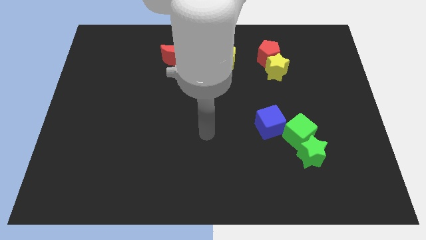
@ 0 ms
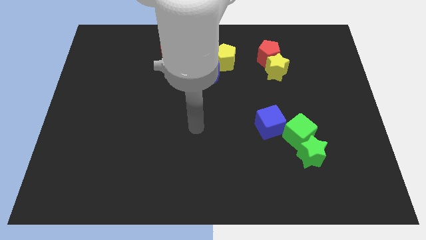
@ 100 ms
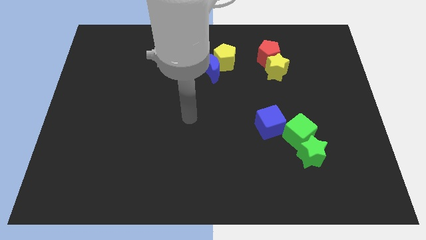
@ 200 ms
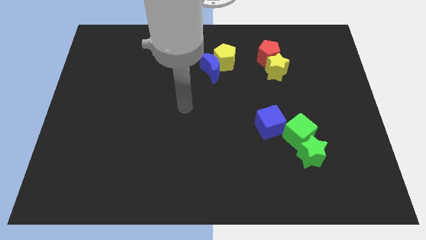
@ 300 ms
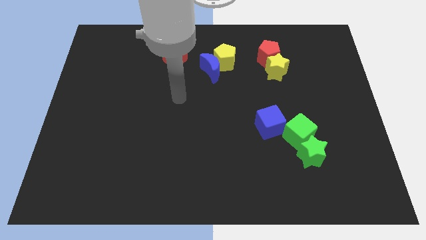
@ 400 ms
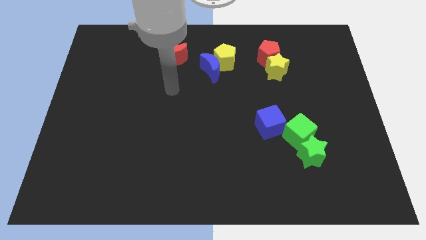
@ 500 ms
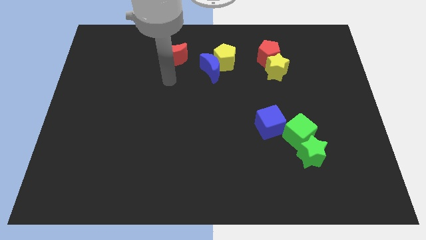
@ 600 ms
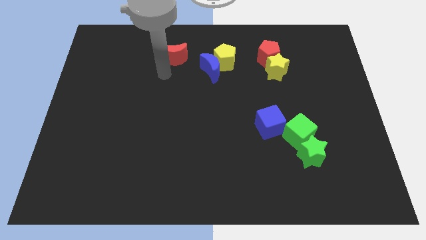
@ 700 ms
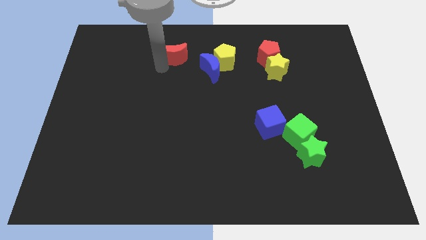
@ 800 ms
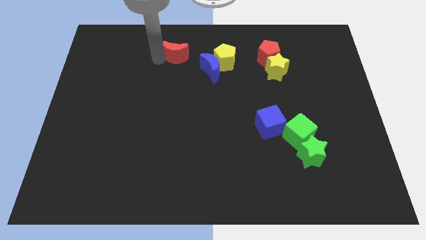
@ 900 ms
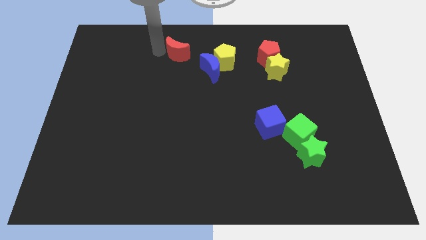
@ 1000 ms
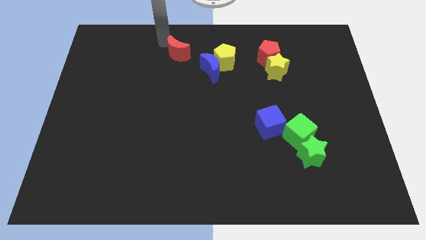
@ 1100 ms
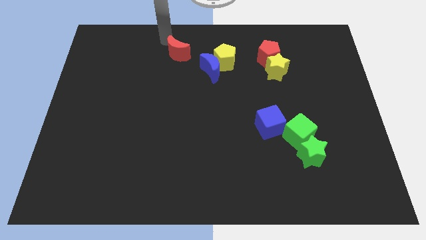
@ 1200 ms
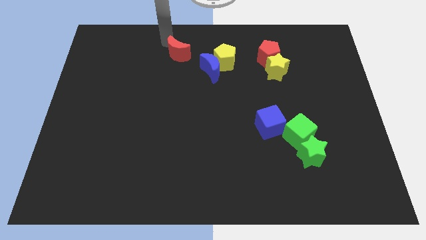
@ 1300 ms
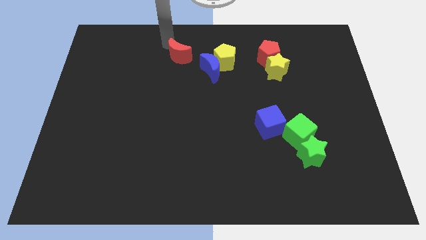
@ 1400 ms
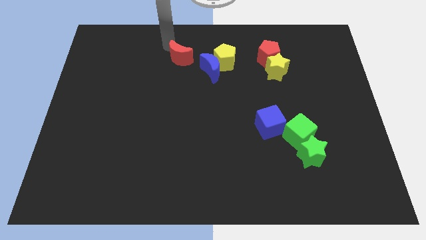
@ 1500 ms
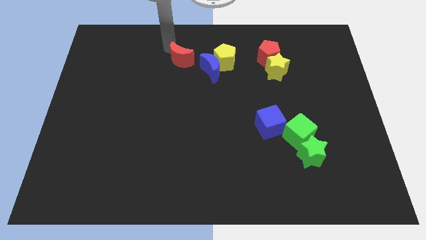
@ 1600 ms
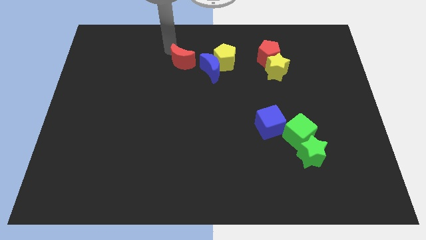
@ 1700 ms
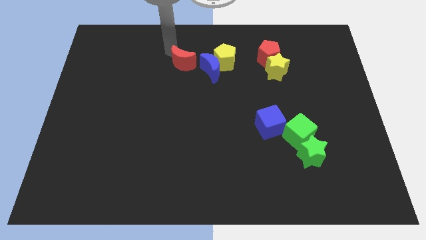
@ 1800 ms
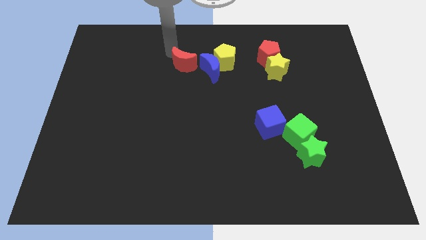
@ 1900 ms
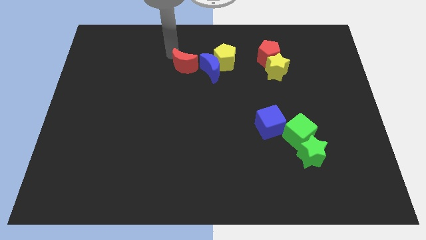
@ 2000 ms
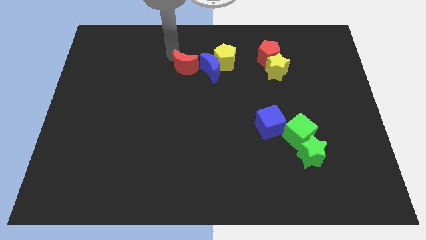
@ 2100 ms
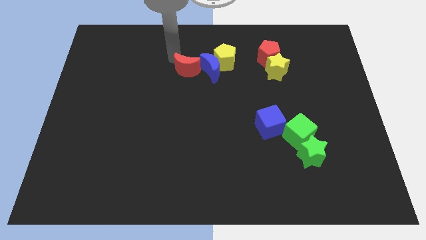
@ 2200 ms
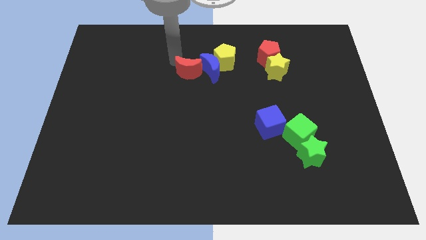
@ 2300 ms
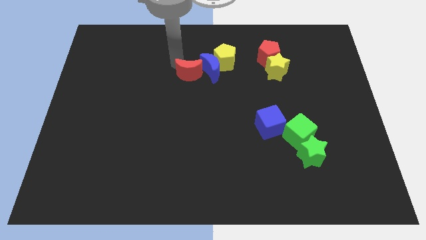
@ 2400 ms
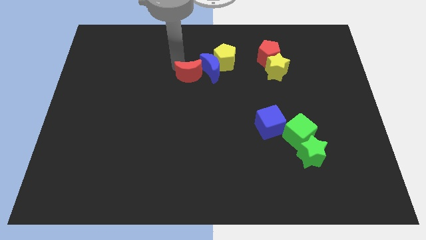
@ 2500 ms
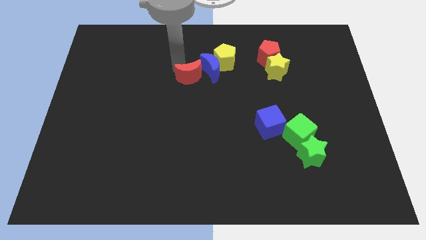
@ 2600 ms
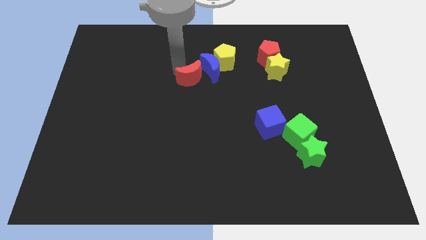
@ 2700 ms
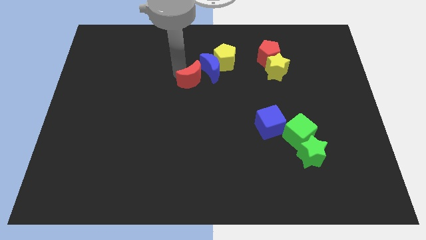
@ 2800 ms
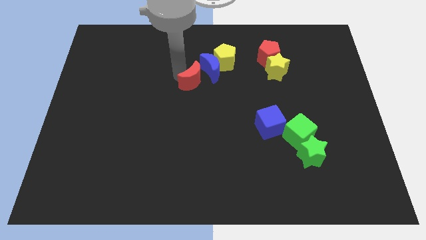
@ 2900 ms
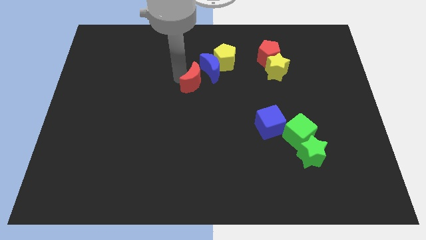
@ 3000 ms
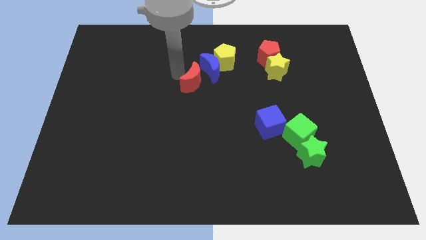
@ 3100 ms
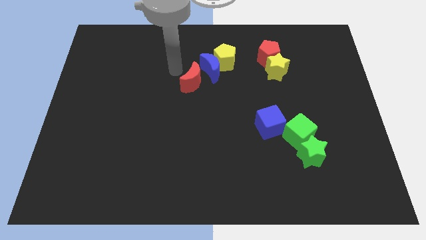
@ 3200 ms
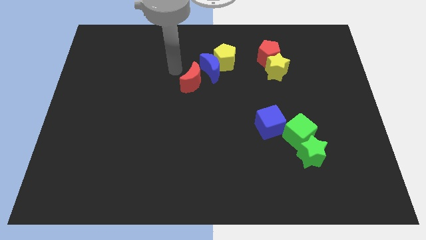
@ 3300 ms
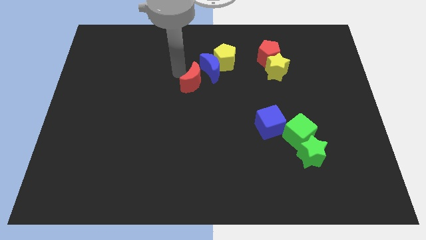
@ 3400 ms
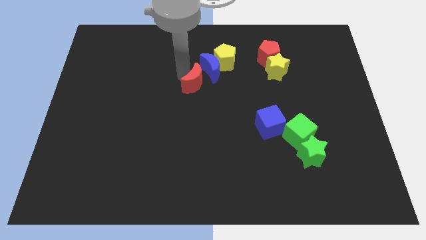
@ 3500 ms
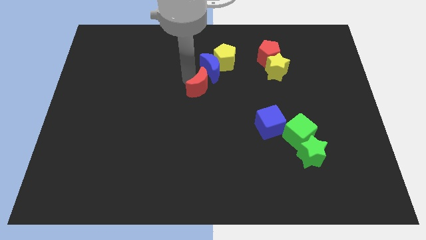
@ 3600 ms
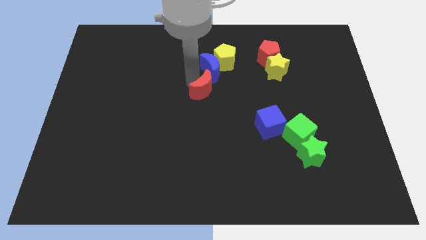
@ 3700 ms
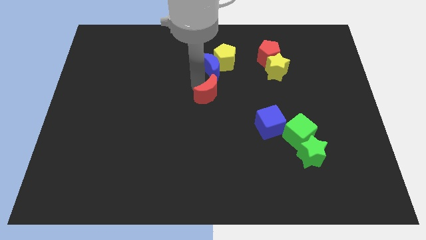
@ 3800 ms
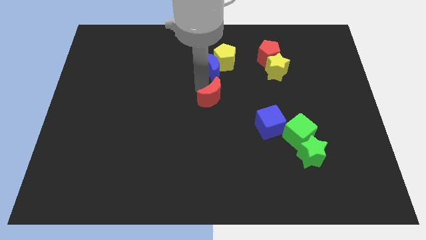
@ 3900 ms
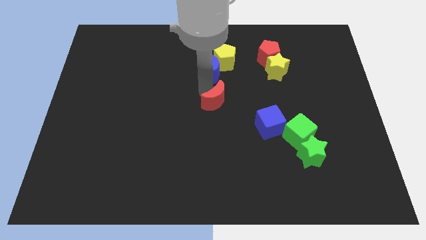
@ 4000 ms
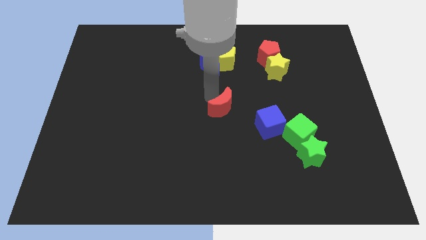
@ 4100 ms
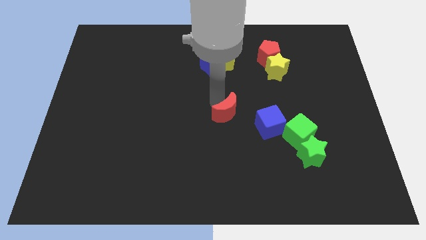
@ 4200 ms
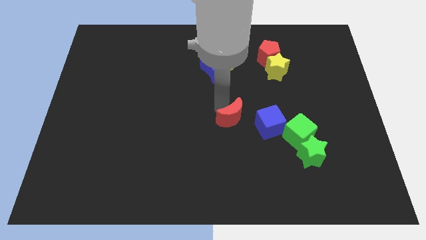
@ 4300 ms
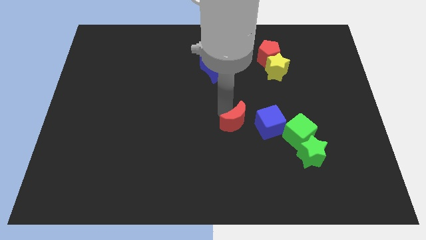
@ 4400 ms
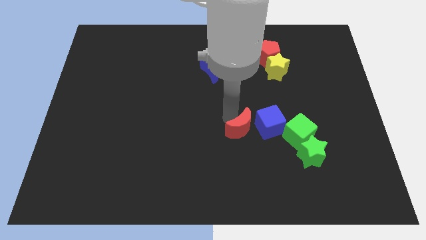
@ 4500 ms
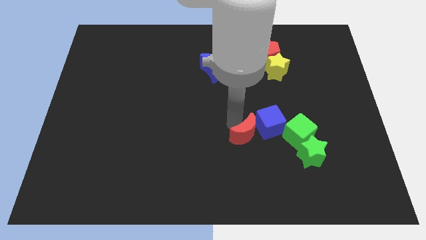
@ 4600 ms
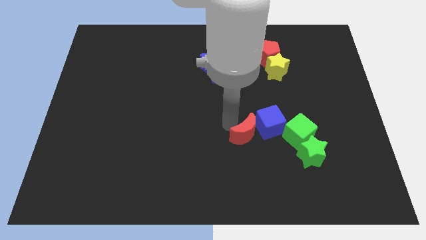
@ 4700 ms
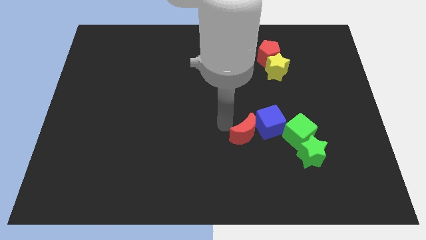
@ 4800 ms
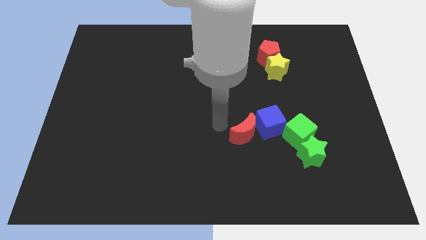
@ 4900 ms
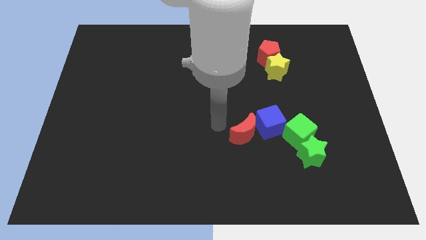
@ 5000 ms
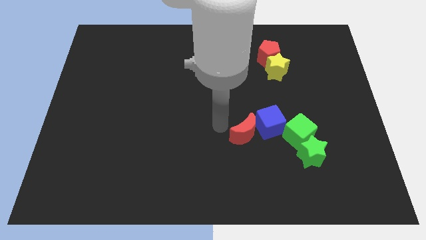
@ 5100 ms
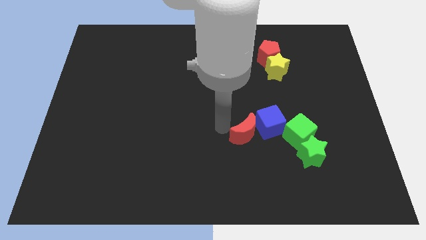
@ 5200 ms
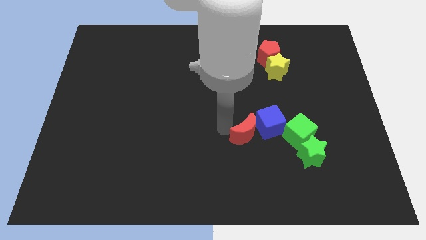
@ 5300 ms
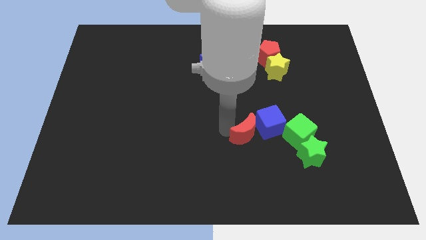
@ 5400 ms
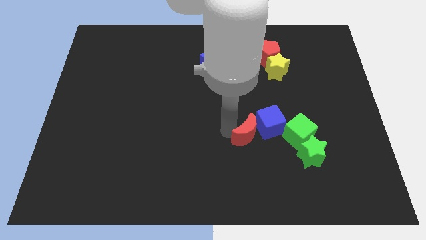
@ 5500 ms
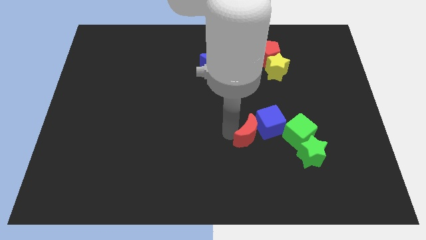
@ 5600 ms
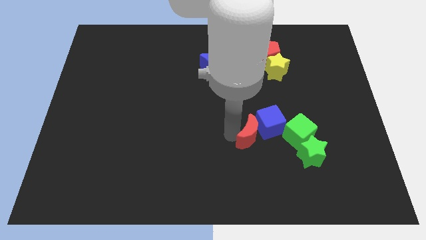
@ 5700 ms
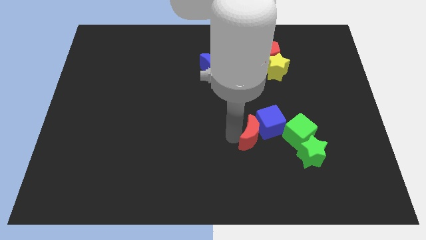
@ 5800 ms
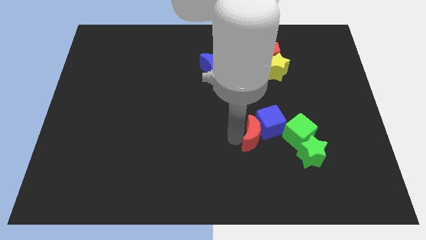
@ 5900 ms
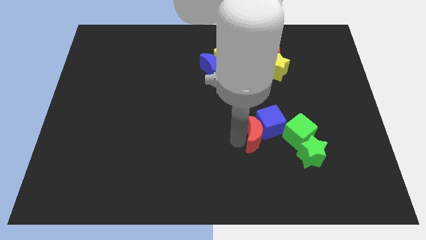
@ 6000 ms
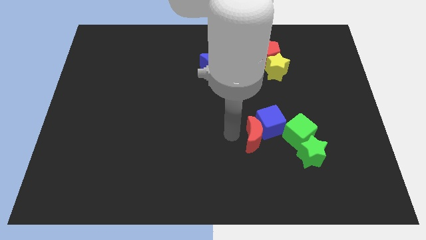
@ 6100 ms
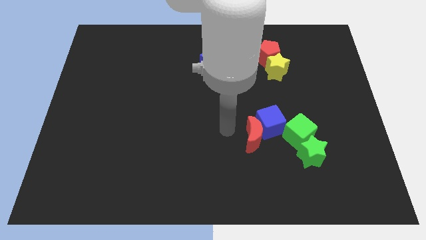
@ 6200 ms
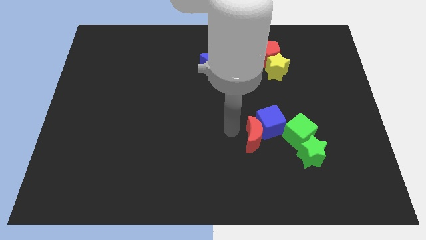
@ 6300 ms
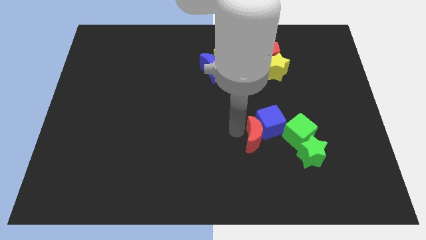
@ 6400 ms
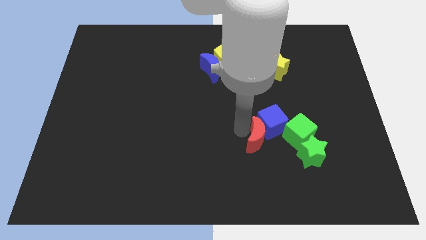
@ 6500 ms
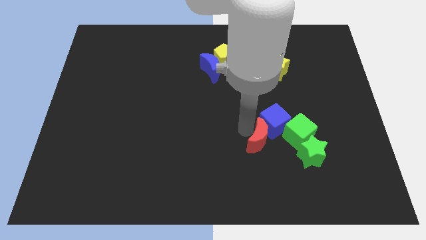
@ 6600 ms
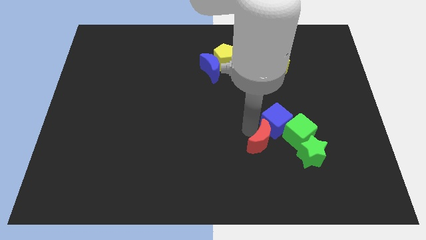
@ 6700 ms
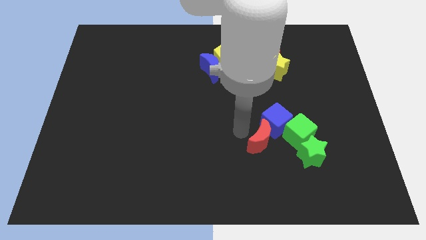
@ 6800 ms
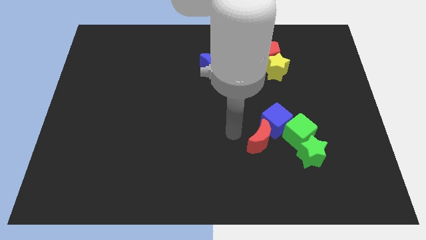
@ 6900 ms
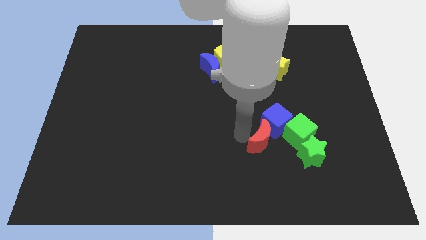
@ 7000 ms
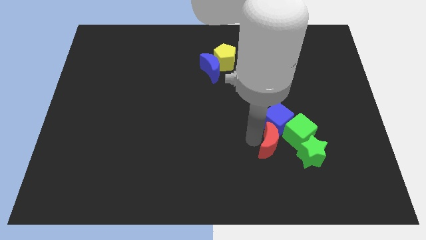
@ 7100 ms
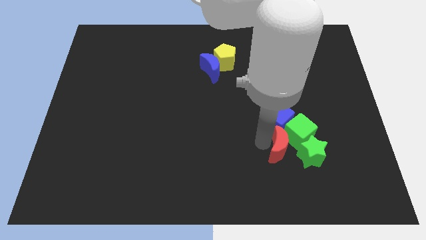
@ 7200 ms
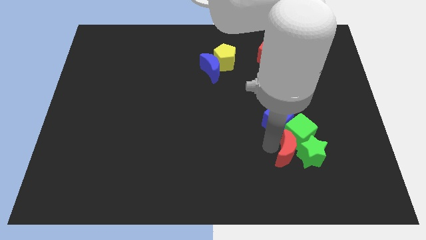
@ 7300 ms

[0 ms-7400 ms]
push the red moon next to the green star

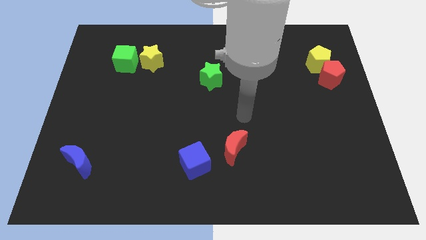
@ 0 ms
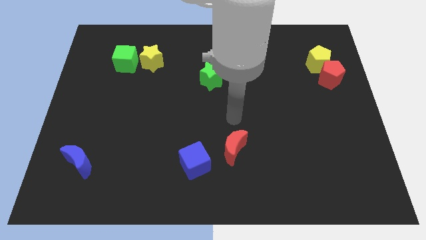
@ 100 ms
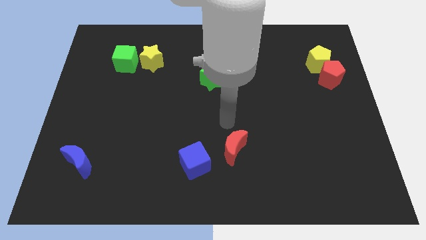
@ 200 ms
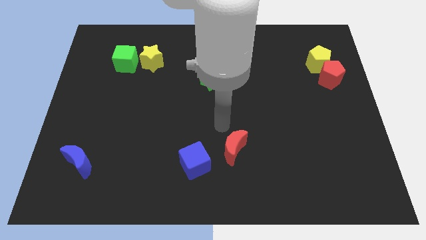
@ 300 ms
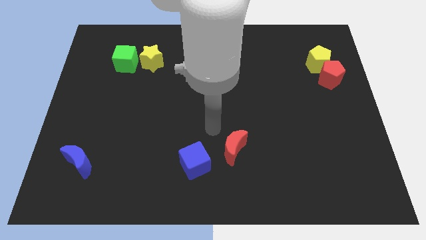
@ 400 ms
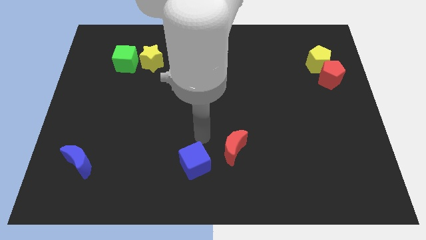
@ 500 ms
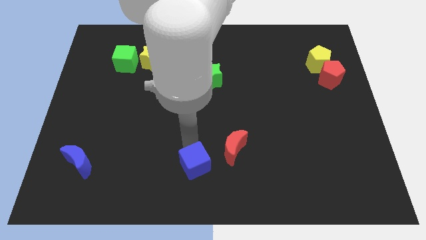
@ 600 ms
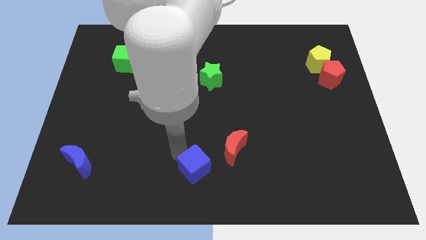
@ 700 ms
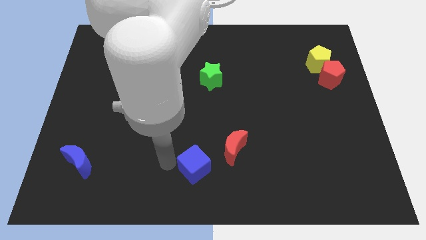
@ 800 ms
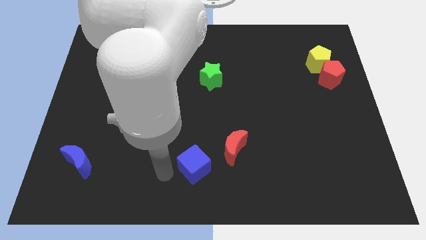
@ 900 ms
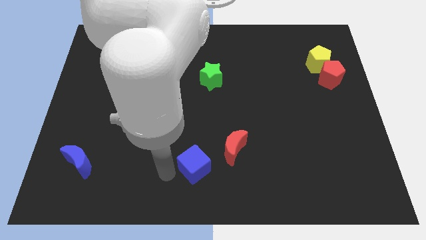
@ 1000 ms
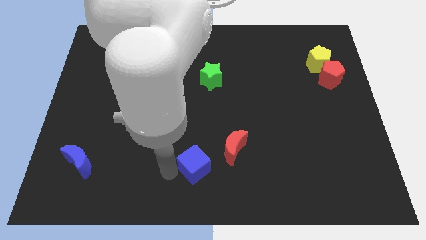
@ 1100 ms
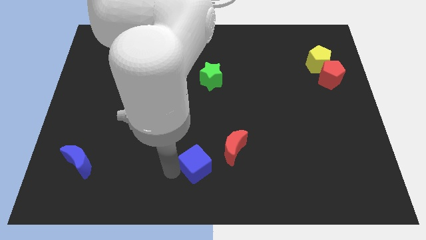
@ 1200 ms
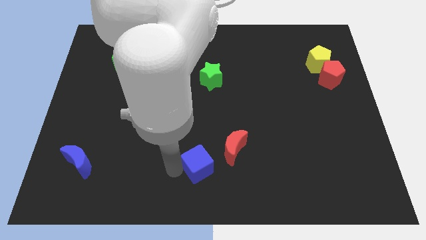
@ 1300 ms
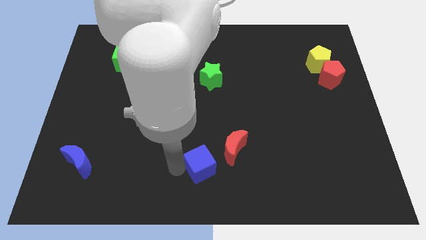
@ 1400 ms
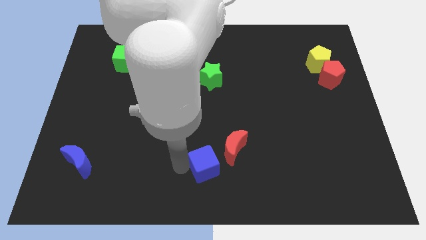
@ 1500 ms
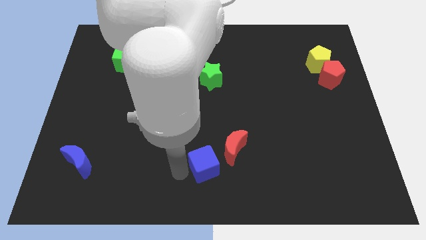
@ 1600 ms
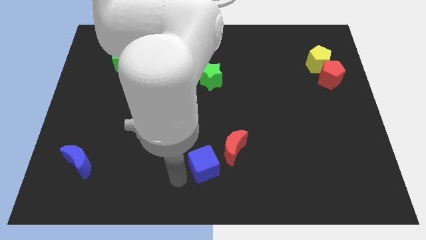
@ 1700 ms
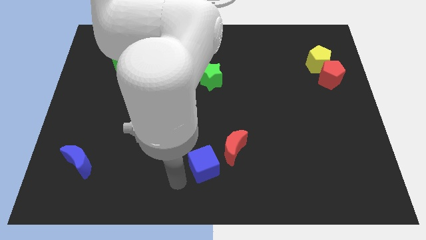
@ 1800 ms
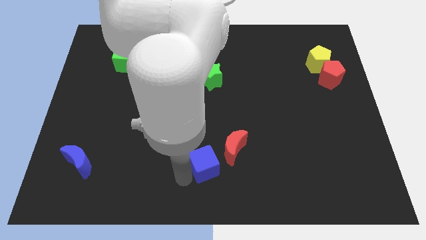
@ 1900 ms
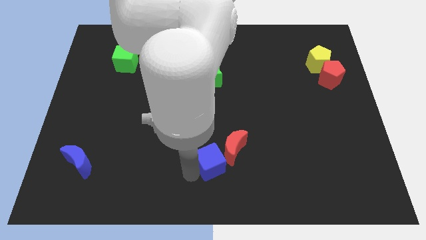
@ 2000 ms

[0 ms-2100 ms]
put the blue cube close to the red moon
